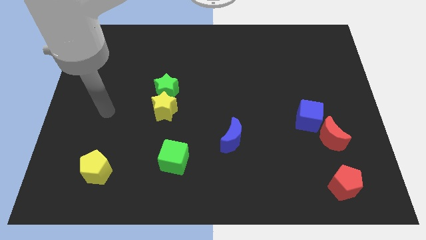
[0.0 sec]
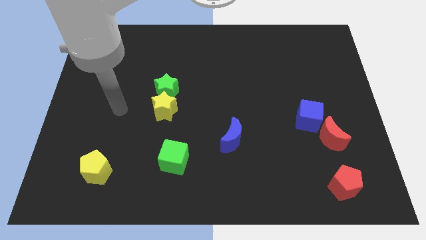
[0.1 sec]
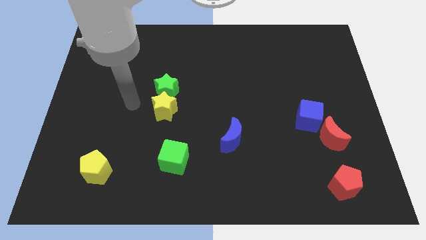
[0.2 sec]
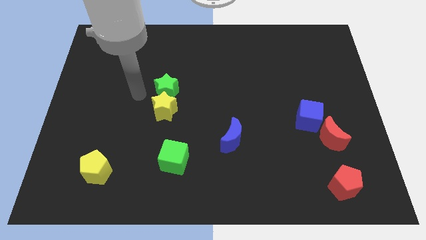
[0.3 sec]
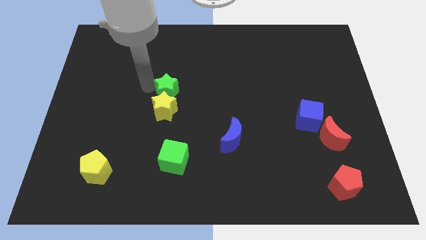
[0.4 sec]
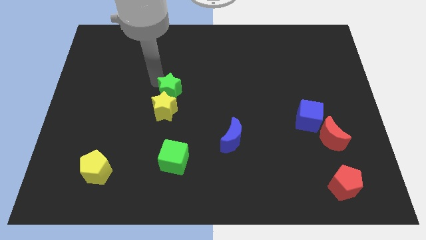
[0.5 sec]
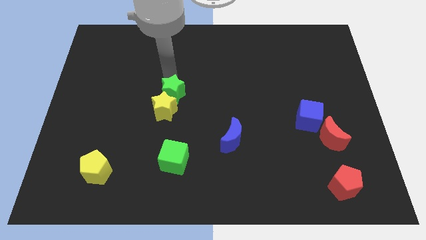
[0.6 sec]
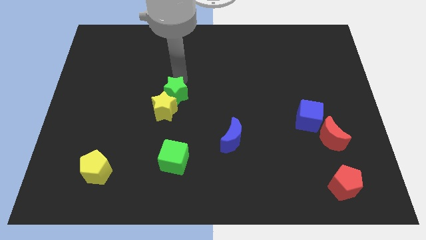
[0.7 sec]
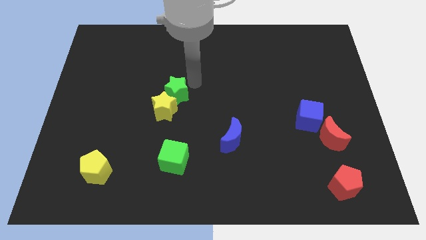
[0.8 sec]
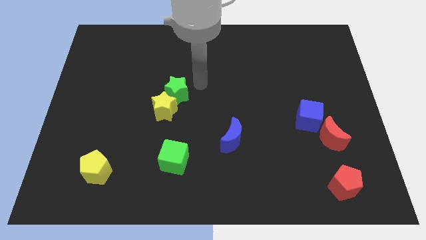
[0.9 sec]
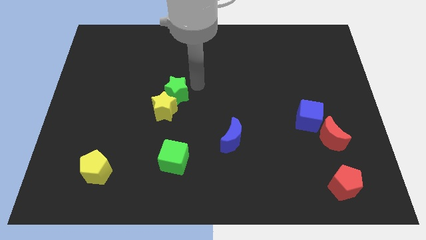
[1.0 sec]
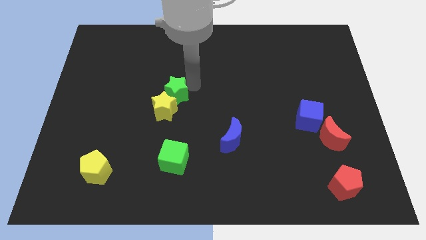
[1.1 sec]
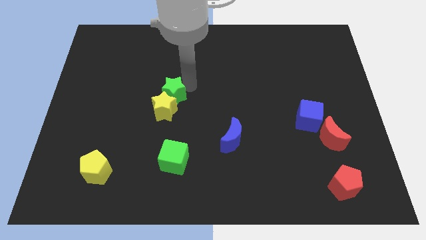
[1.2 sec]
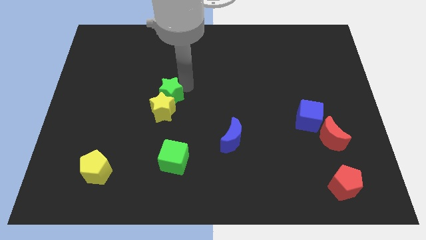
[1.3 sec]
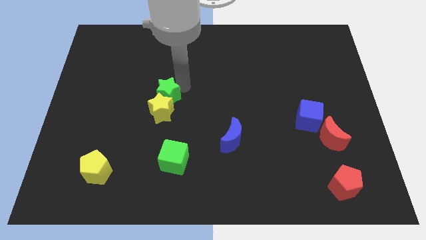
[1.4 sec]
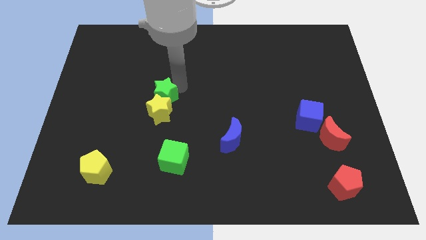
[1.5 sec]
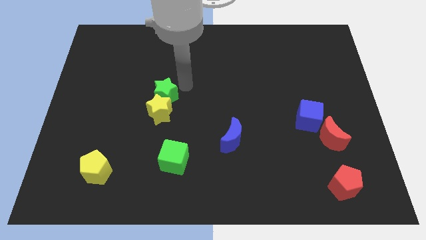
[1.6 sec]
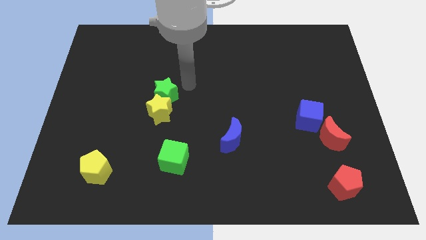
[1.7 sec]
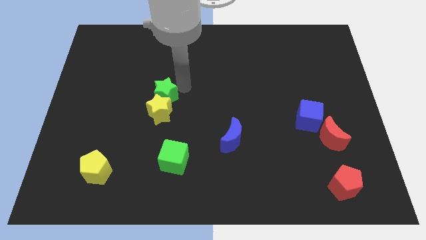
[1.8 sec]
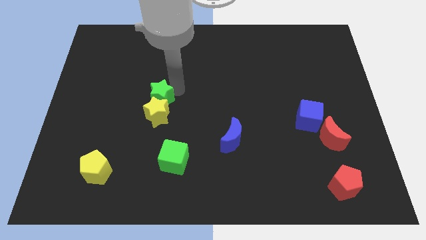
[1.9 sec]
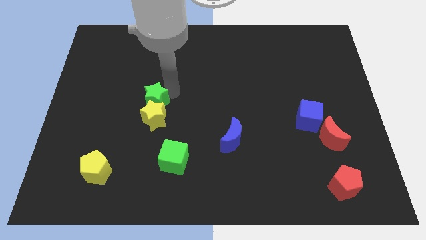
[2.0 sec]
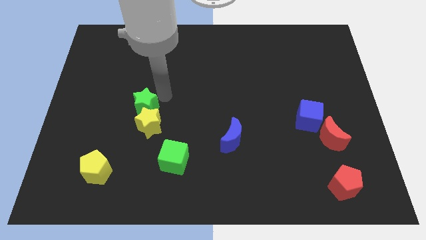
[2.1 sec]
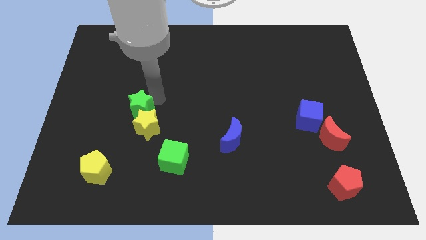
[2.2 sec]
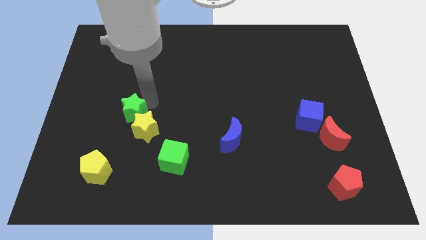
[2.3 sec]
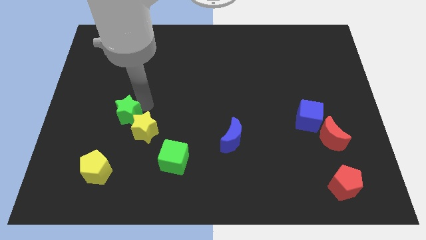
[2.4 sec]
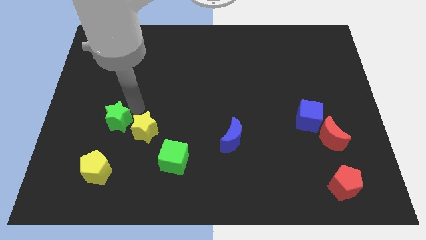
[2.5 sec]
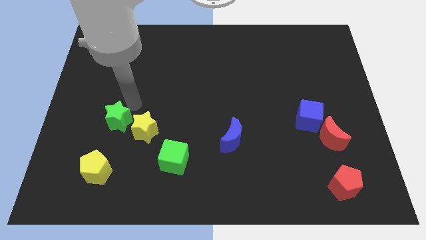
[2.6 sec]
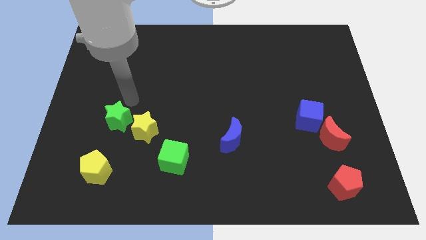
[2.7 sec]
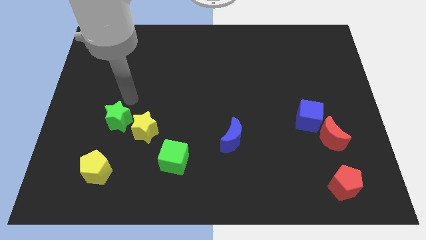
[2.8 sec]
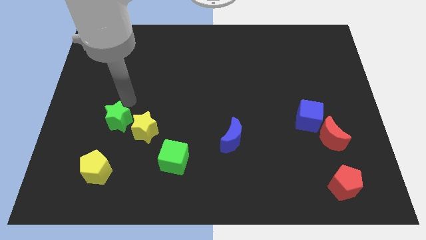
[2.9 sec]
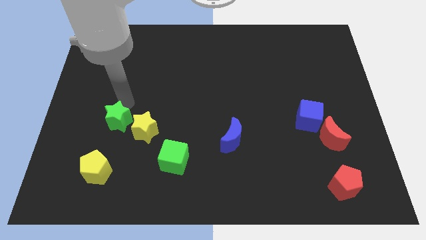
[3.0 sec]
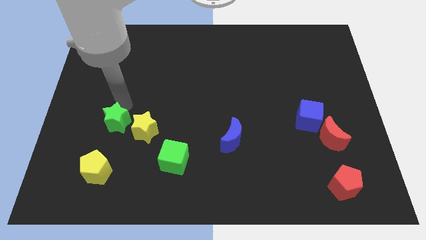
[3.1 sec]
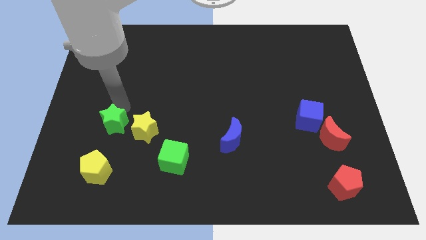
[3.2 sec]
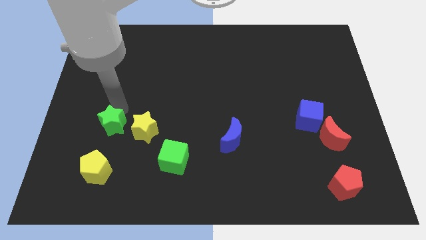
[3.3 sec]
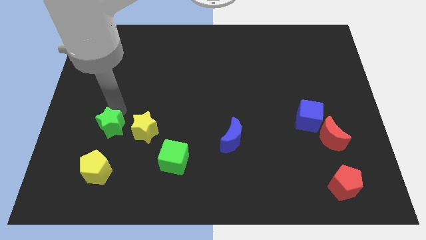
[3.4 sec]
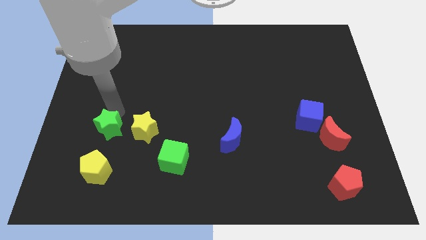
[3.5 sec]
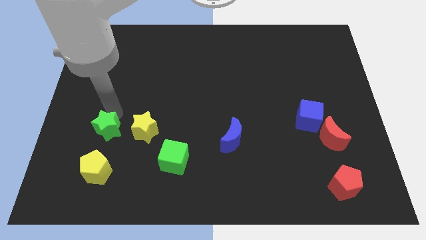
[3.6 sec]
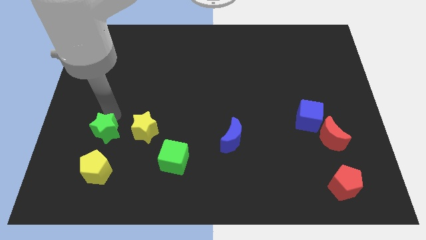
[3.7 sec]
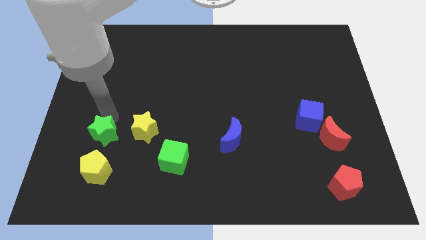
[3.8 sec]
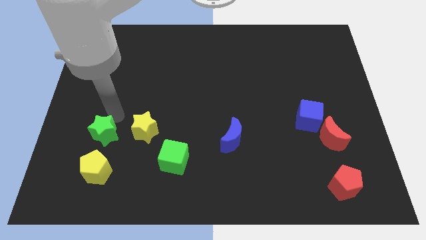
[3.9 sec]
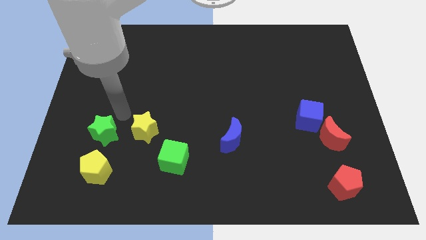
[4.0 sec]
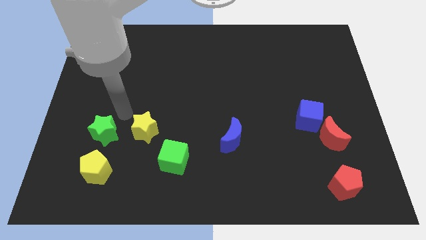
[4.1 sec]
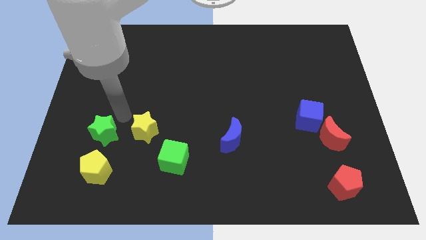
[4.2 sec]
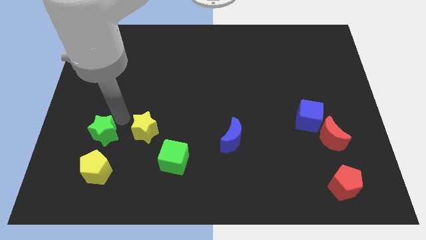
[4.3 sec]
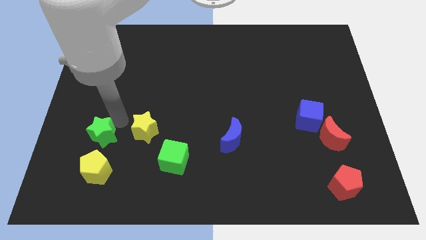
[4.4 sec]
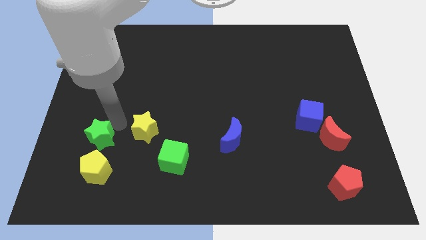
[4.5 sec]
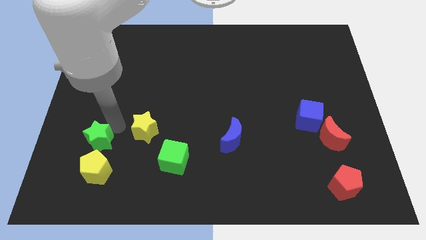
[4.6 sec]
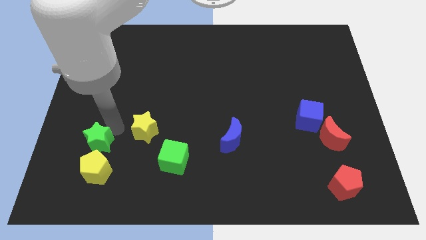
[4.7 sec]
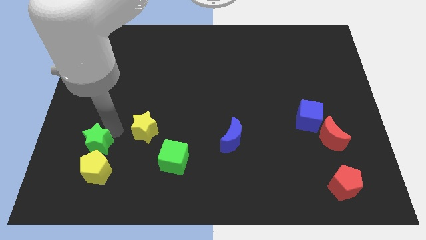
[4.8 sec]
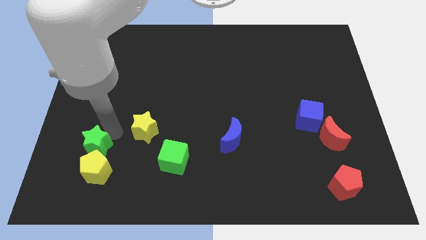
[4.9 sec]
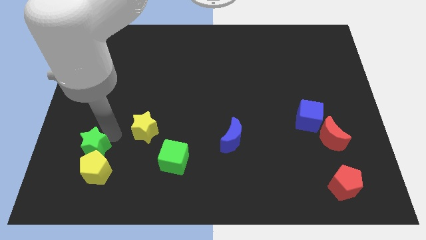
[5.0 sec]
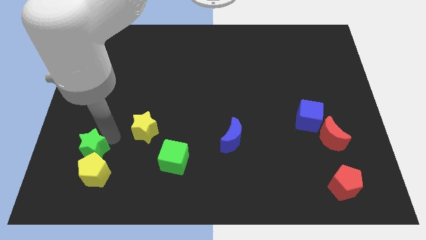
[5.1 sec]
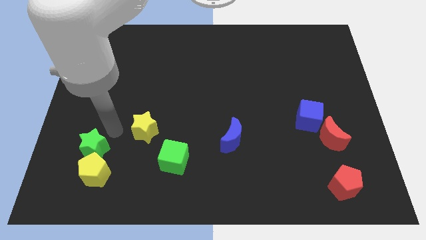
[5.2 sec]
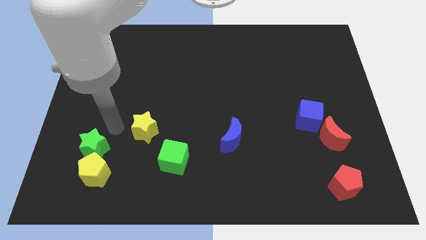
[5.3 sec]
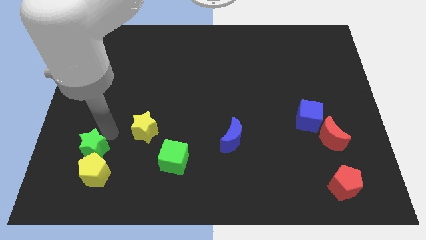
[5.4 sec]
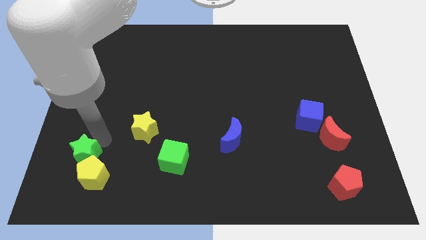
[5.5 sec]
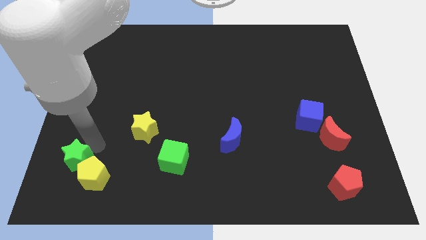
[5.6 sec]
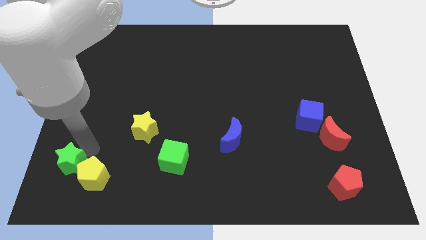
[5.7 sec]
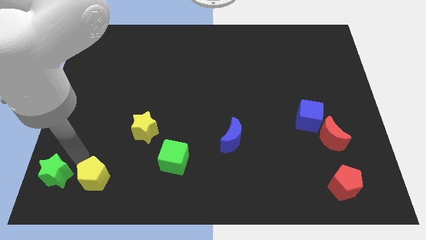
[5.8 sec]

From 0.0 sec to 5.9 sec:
move the green star to the bottom left of the board

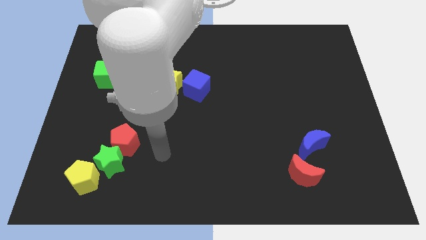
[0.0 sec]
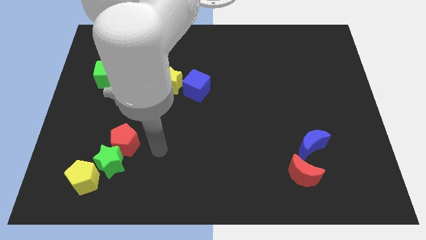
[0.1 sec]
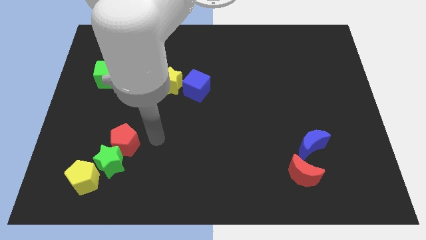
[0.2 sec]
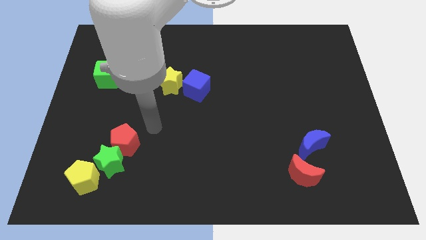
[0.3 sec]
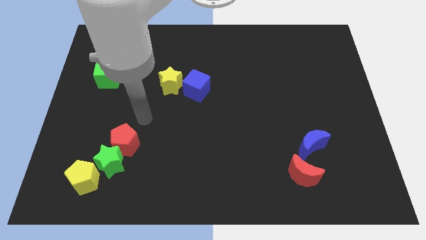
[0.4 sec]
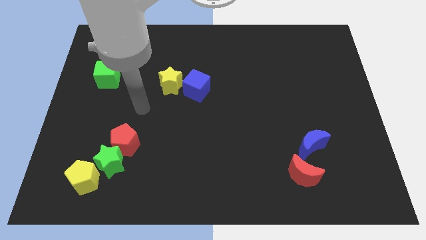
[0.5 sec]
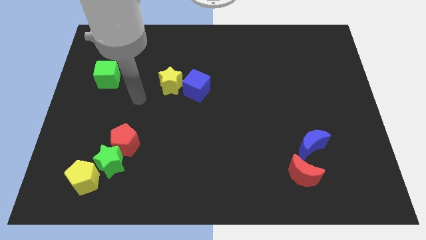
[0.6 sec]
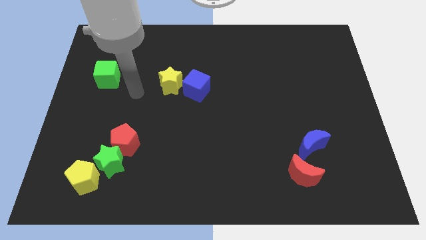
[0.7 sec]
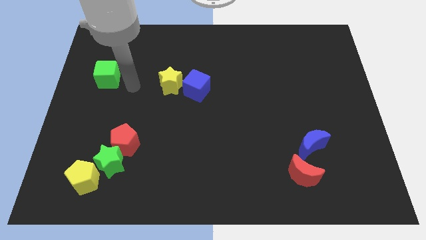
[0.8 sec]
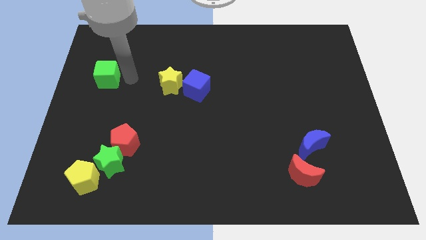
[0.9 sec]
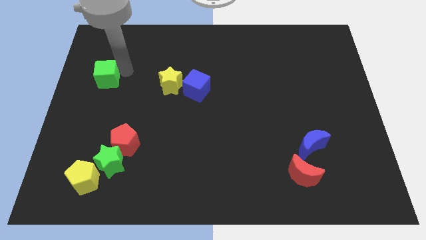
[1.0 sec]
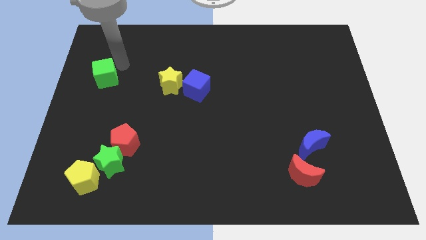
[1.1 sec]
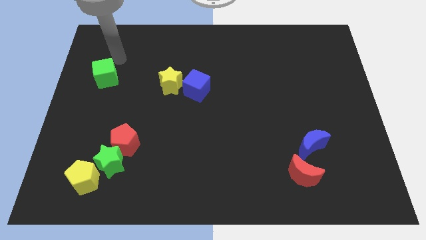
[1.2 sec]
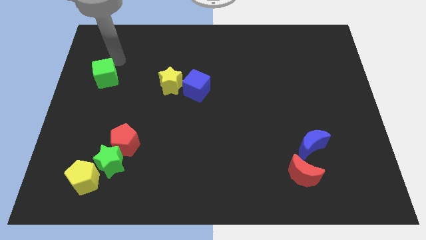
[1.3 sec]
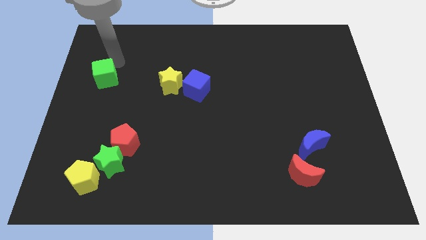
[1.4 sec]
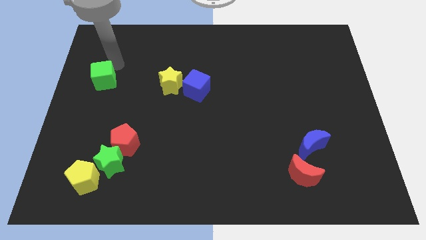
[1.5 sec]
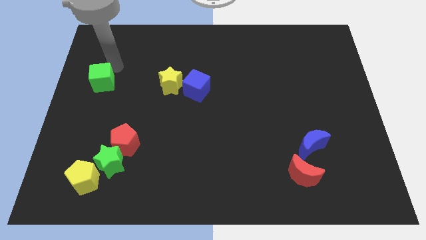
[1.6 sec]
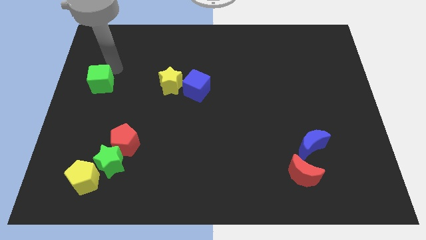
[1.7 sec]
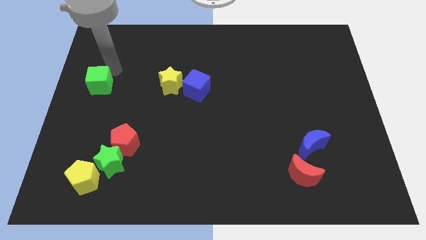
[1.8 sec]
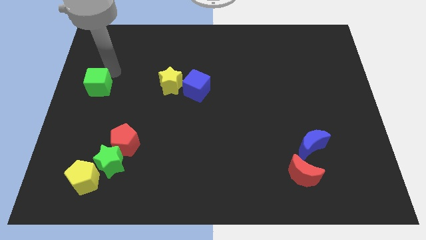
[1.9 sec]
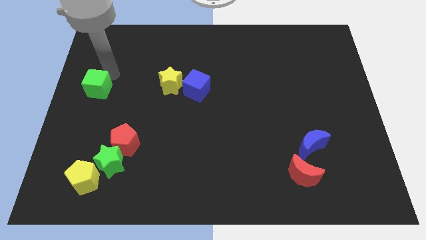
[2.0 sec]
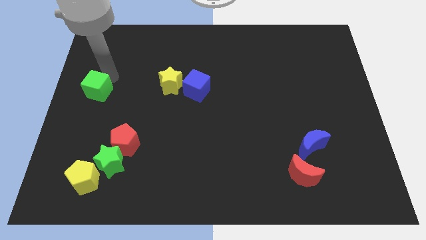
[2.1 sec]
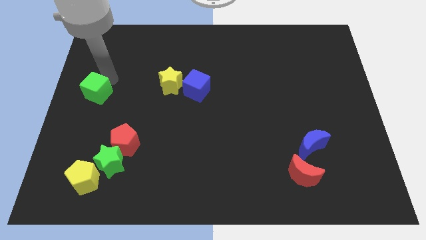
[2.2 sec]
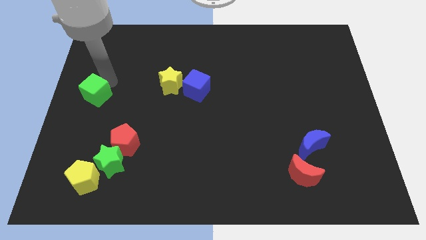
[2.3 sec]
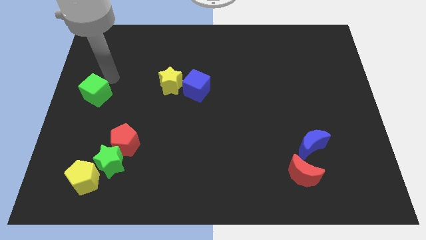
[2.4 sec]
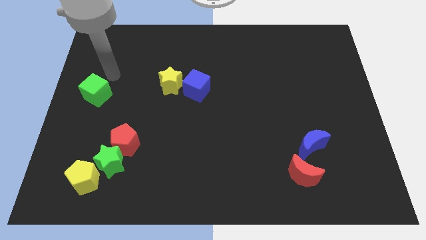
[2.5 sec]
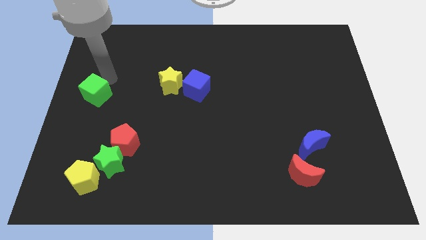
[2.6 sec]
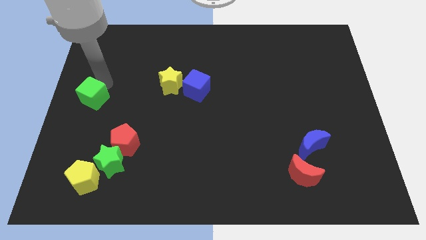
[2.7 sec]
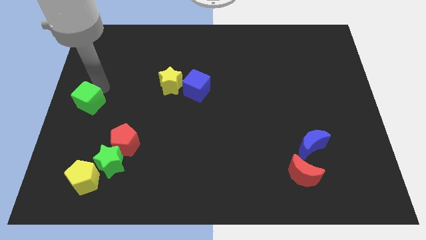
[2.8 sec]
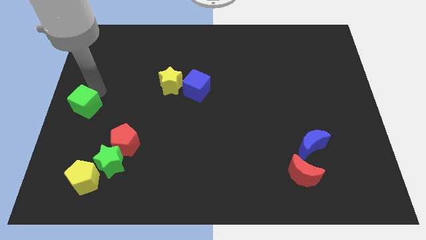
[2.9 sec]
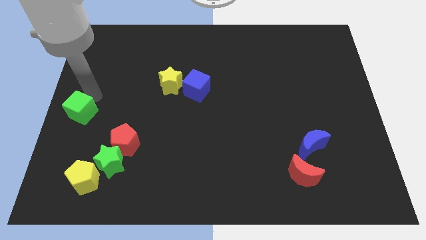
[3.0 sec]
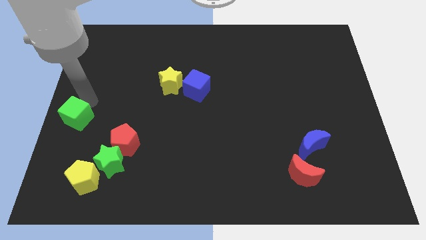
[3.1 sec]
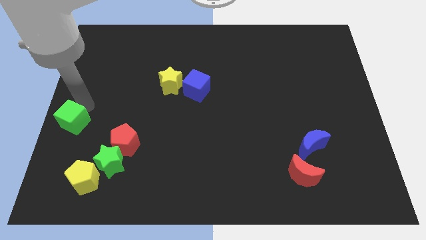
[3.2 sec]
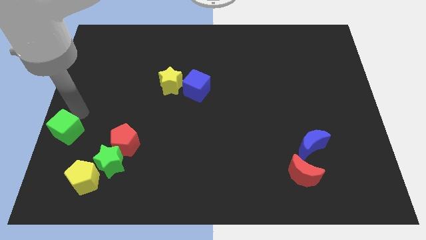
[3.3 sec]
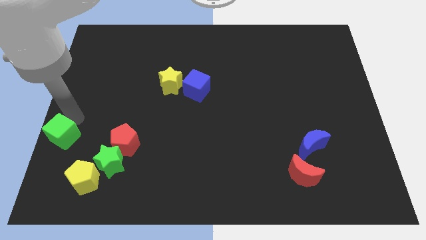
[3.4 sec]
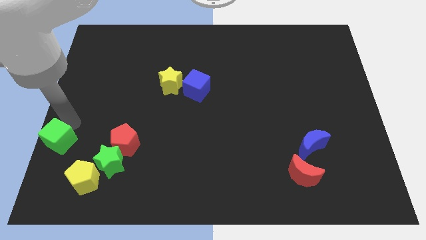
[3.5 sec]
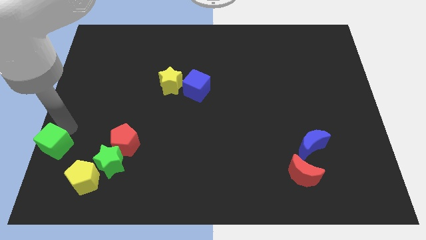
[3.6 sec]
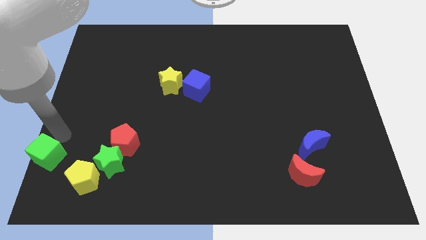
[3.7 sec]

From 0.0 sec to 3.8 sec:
move the green cube to the bottom left of the board
